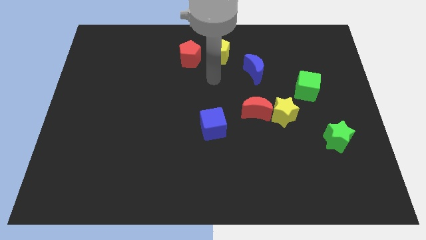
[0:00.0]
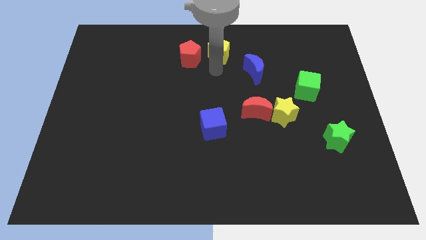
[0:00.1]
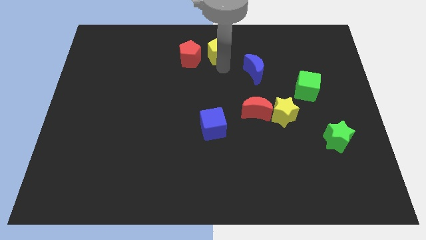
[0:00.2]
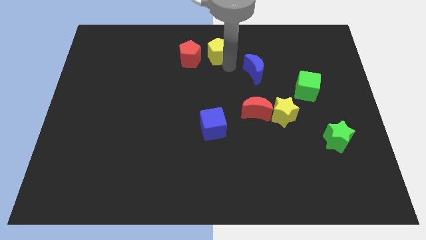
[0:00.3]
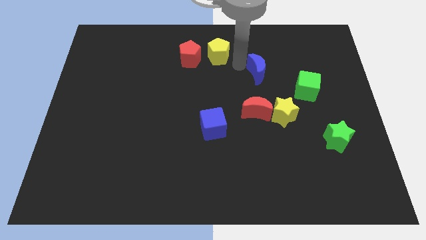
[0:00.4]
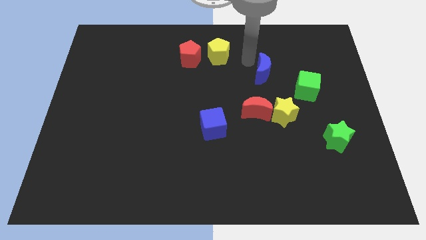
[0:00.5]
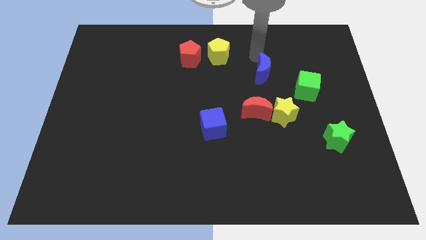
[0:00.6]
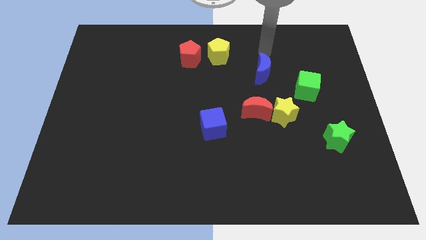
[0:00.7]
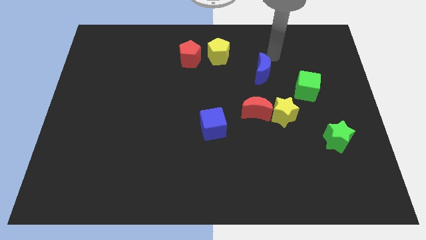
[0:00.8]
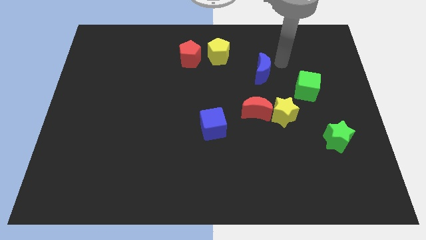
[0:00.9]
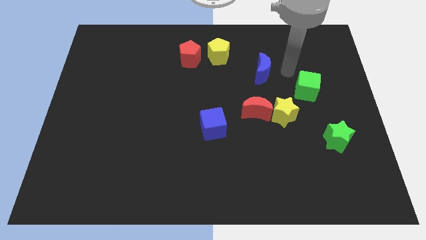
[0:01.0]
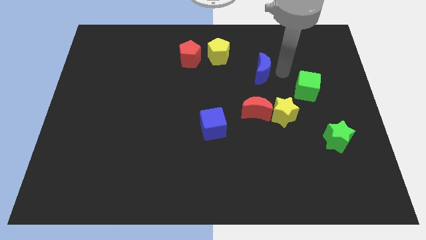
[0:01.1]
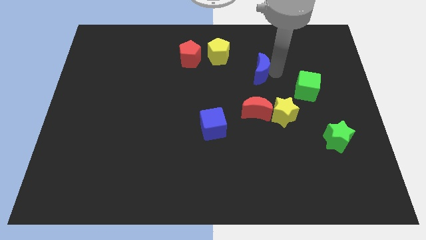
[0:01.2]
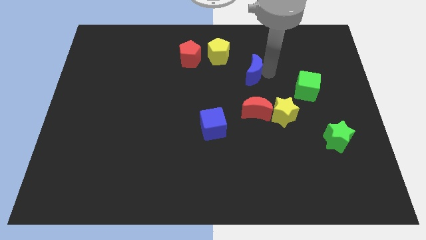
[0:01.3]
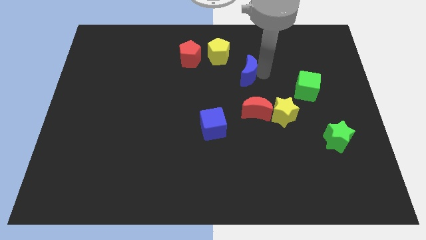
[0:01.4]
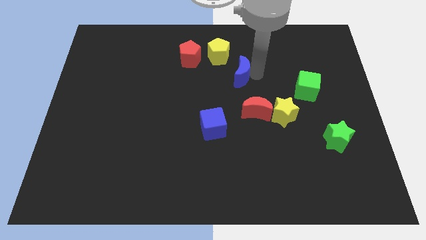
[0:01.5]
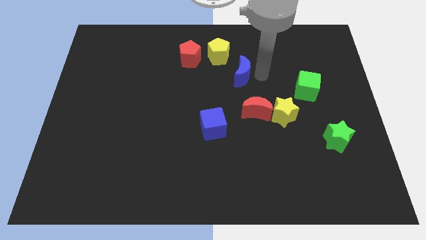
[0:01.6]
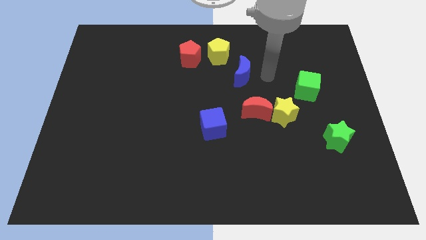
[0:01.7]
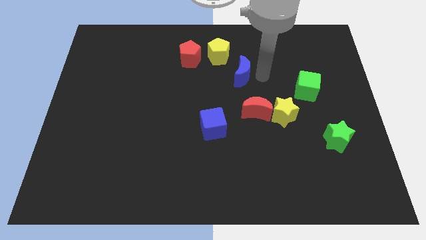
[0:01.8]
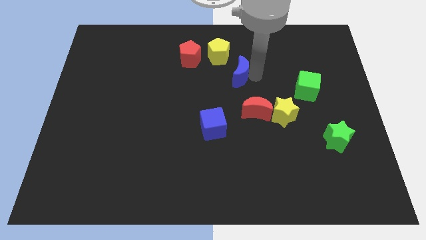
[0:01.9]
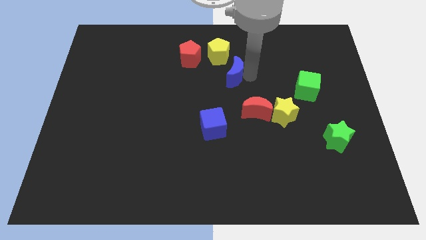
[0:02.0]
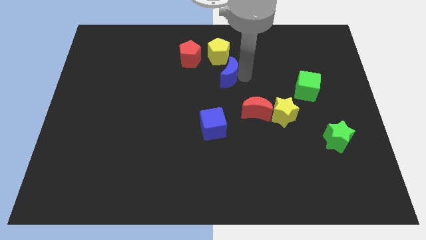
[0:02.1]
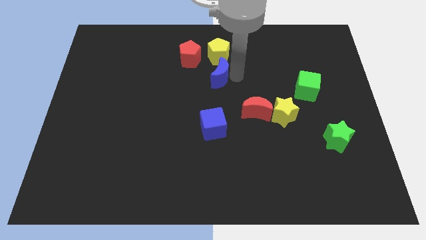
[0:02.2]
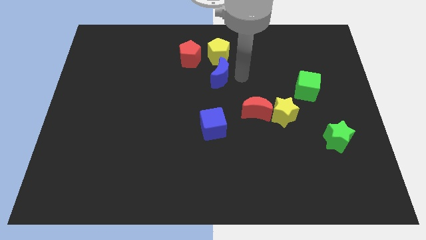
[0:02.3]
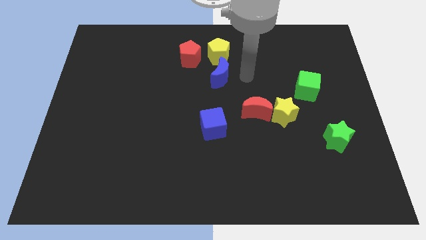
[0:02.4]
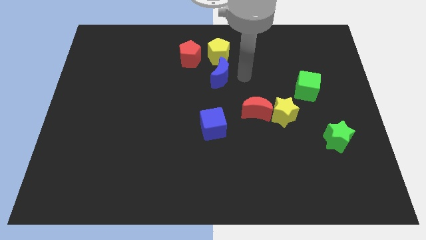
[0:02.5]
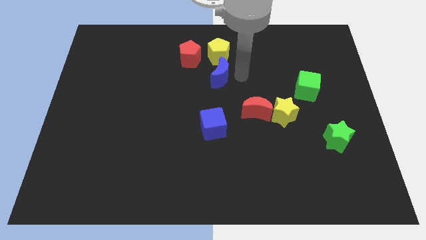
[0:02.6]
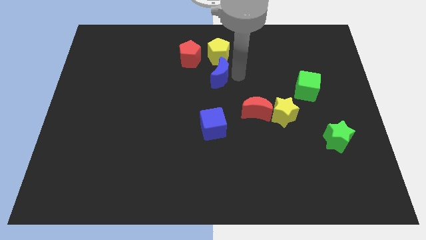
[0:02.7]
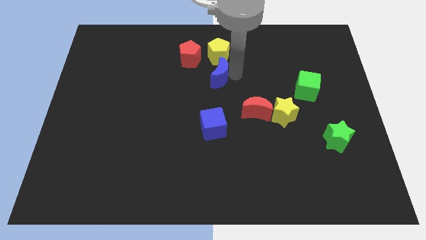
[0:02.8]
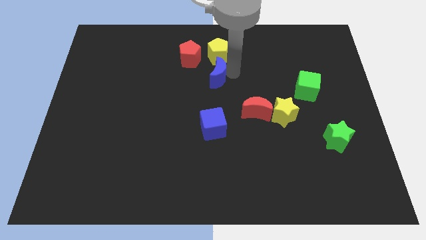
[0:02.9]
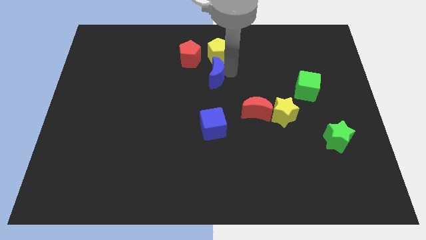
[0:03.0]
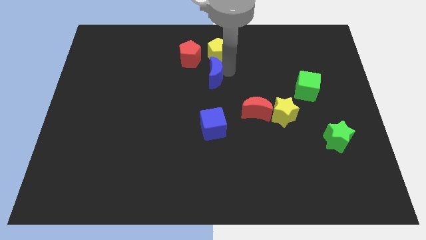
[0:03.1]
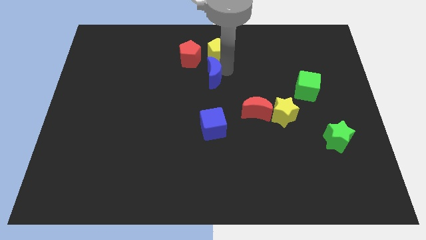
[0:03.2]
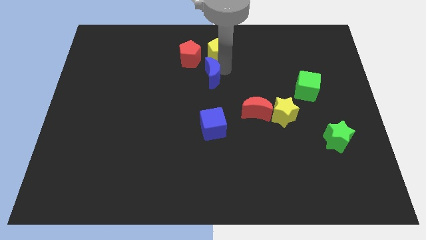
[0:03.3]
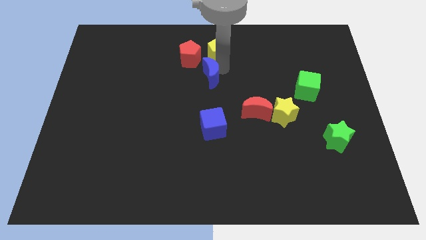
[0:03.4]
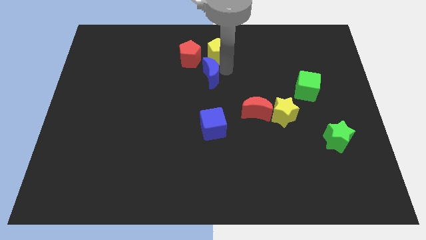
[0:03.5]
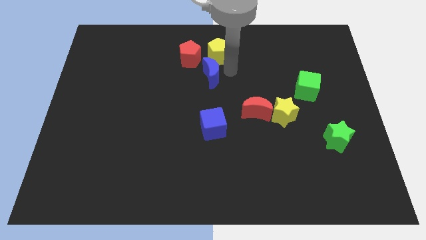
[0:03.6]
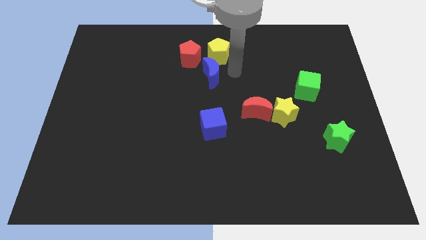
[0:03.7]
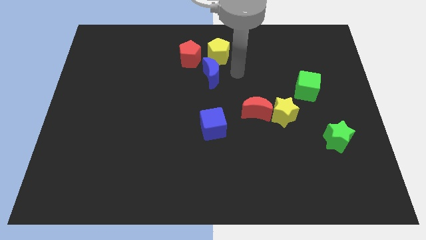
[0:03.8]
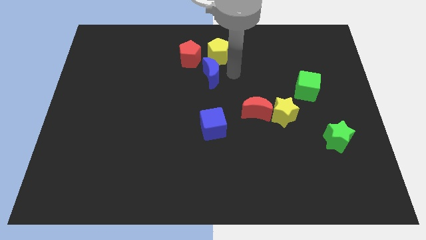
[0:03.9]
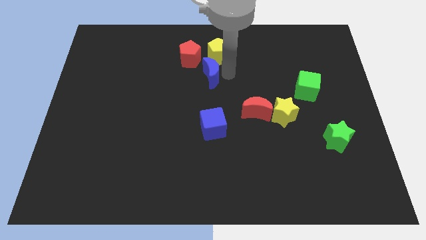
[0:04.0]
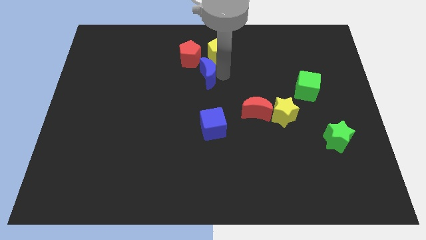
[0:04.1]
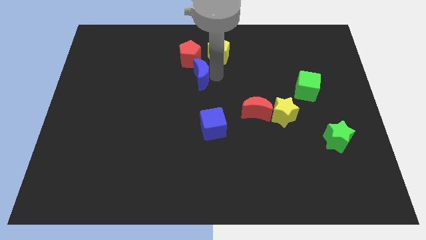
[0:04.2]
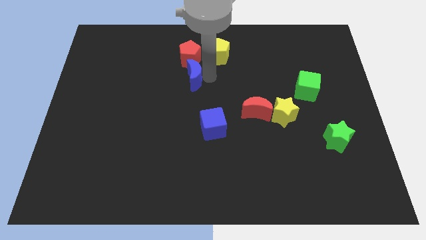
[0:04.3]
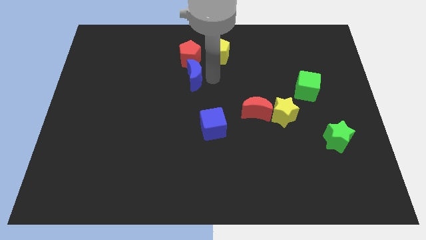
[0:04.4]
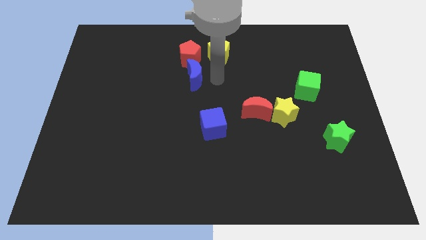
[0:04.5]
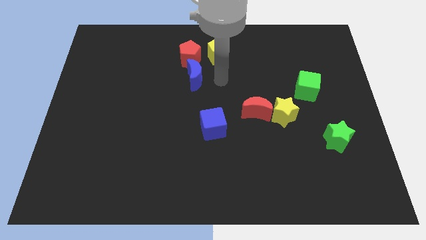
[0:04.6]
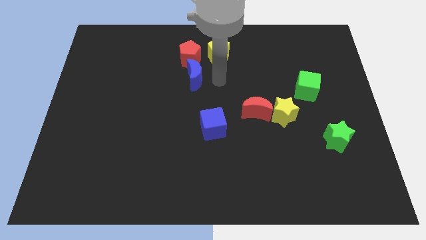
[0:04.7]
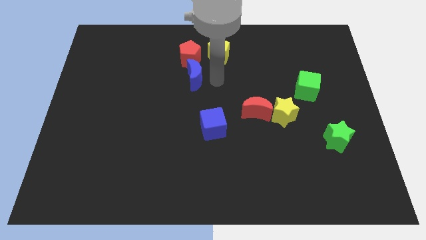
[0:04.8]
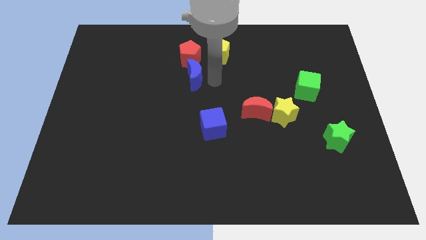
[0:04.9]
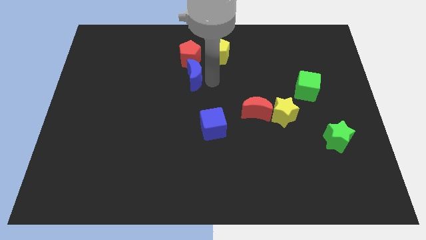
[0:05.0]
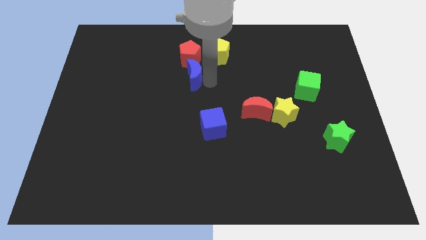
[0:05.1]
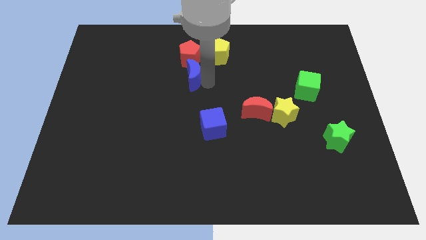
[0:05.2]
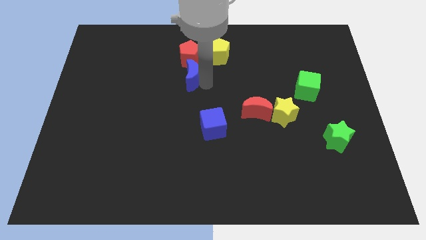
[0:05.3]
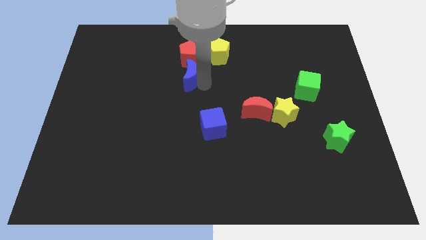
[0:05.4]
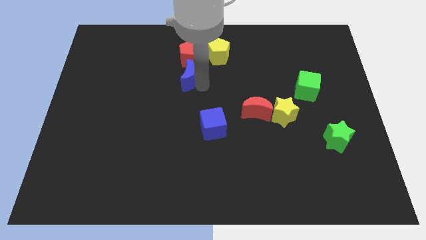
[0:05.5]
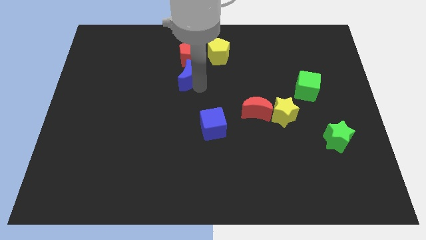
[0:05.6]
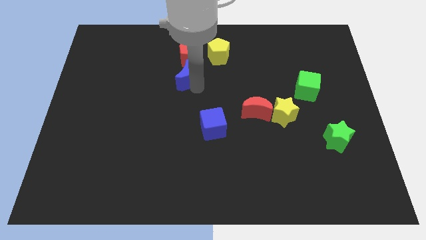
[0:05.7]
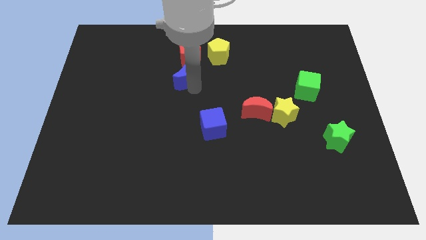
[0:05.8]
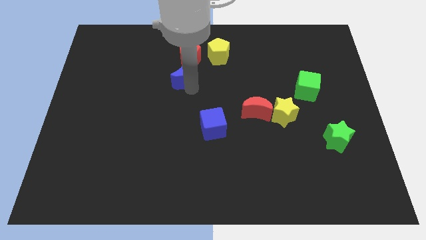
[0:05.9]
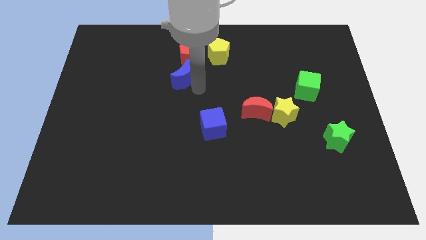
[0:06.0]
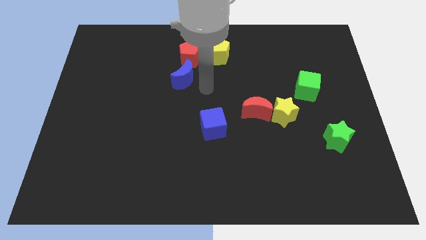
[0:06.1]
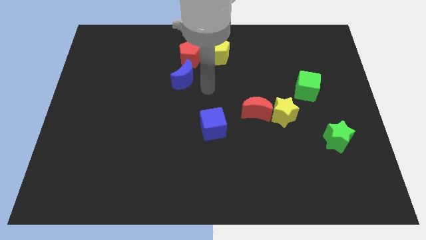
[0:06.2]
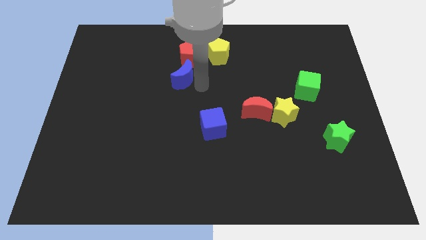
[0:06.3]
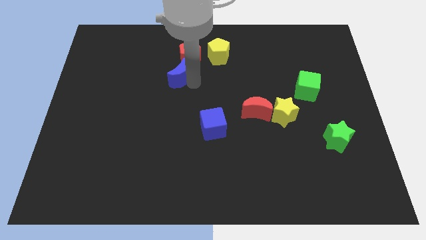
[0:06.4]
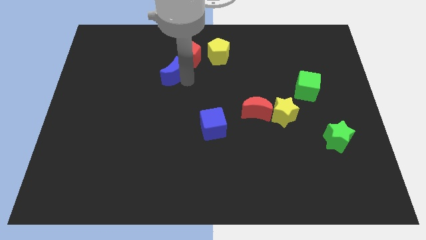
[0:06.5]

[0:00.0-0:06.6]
slide the blue moon left

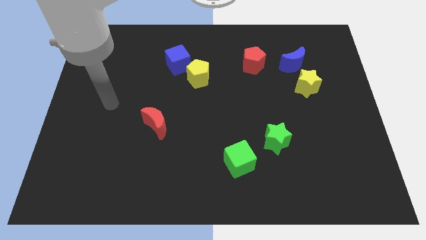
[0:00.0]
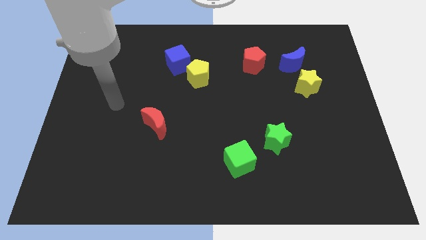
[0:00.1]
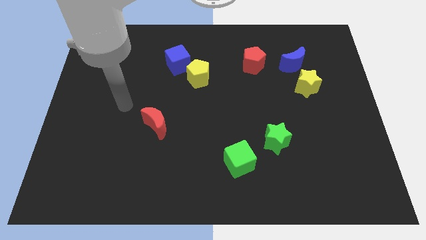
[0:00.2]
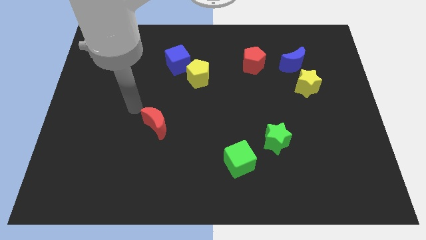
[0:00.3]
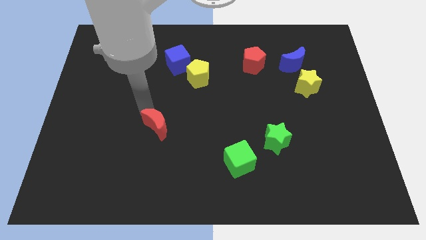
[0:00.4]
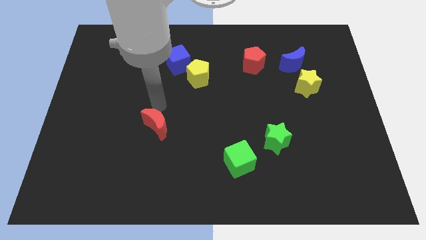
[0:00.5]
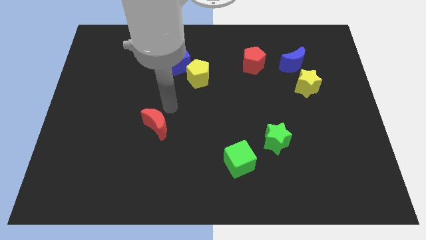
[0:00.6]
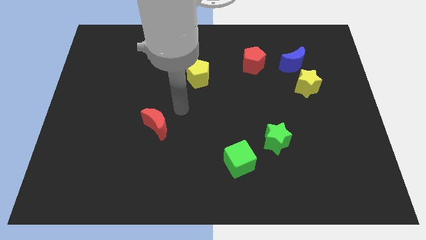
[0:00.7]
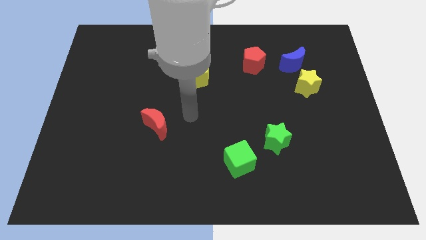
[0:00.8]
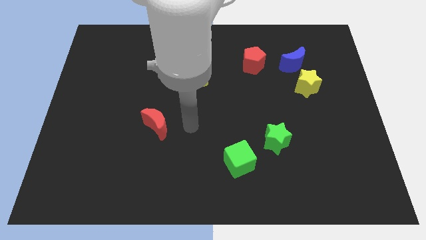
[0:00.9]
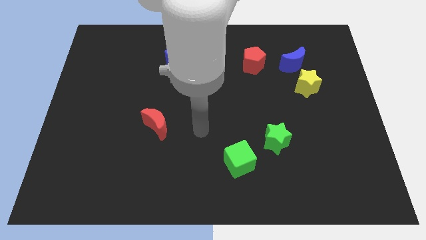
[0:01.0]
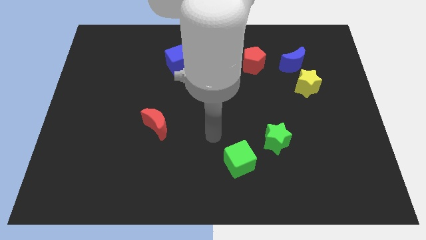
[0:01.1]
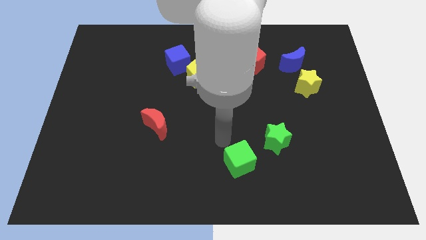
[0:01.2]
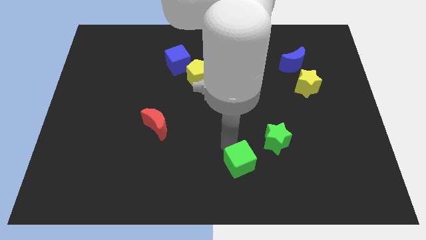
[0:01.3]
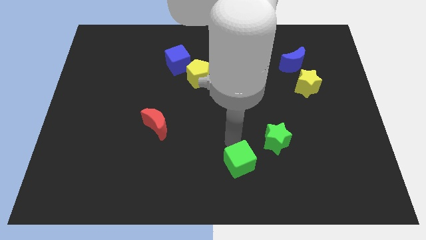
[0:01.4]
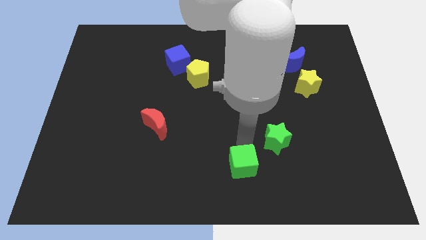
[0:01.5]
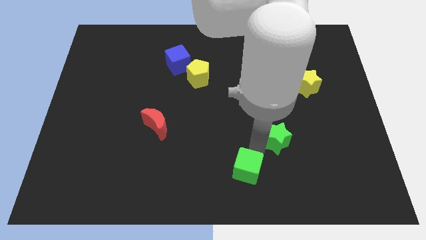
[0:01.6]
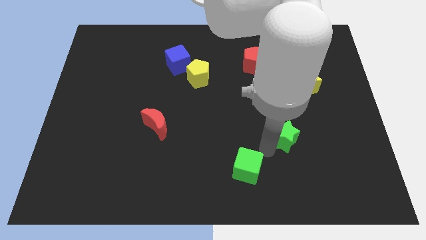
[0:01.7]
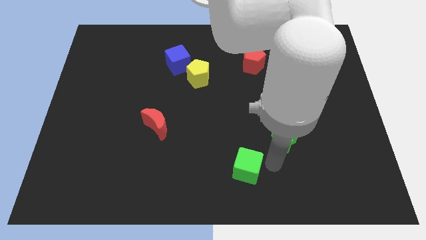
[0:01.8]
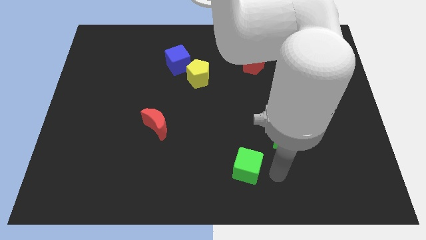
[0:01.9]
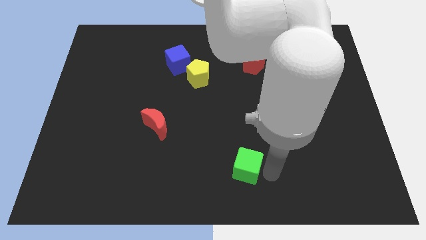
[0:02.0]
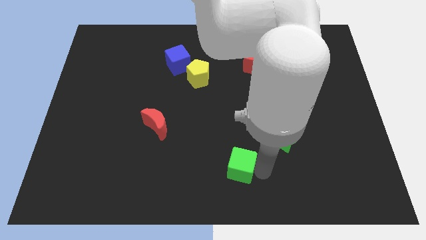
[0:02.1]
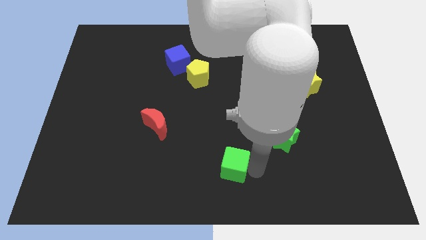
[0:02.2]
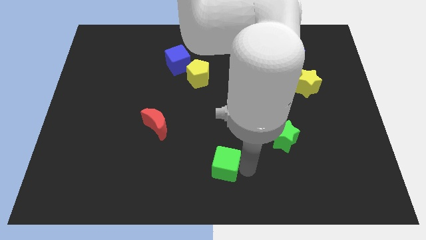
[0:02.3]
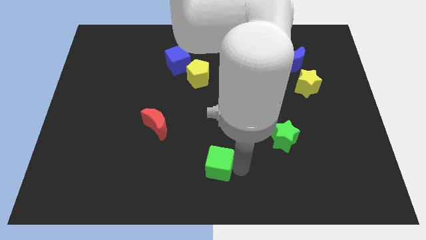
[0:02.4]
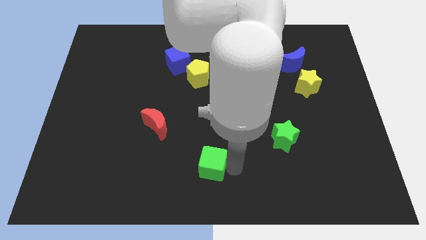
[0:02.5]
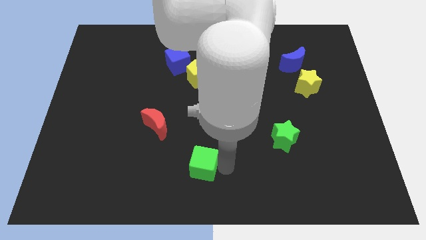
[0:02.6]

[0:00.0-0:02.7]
push the green cube left somewhat
